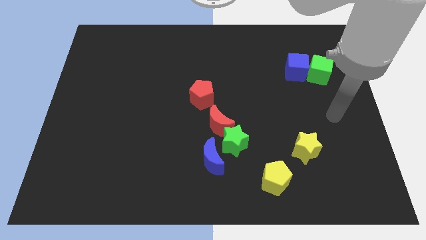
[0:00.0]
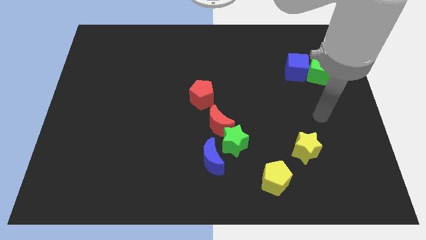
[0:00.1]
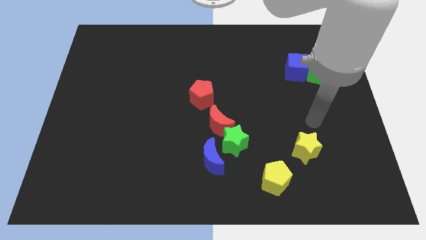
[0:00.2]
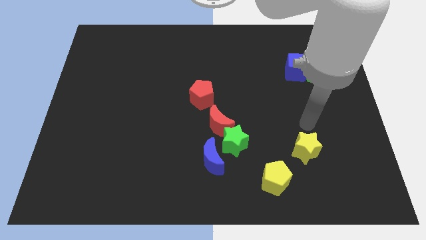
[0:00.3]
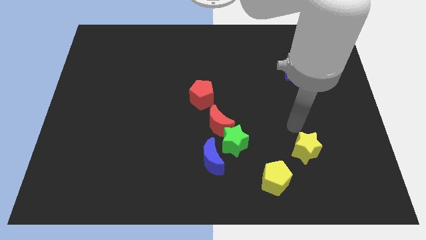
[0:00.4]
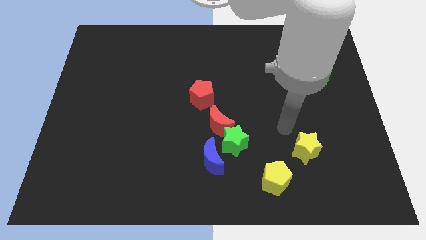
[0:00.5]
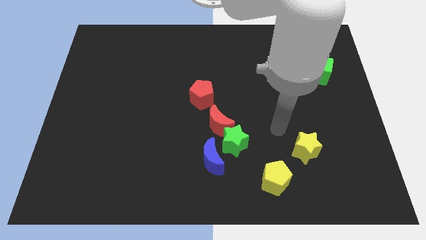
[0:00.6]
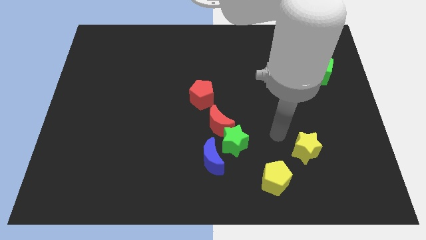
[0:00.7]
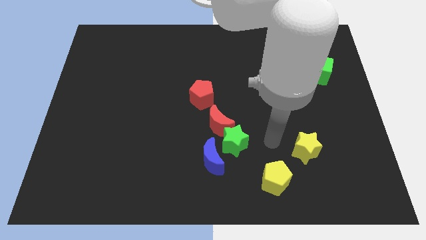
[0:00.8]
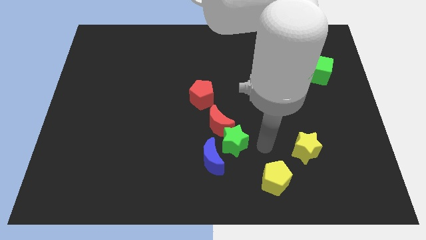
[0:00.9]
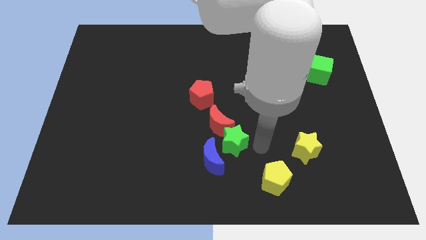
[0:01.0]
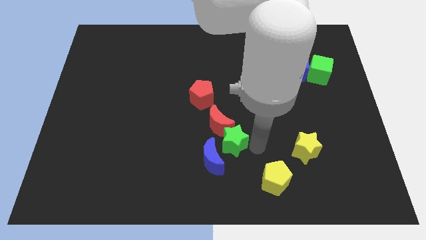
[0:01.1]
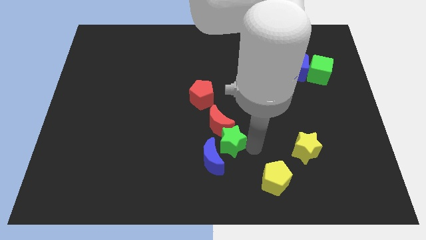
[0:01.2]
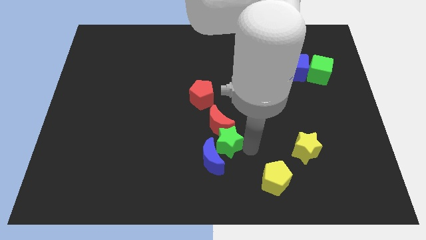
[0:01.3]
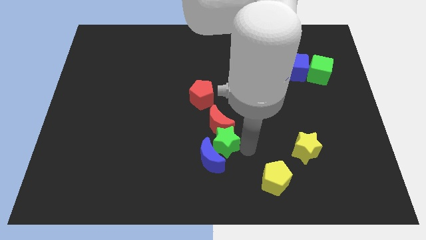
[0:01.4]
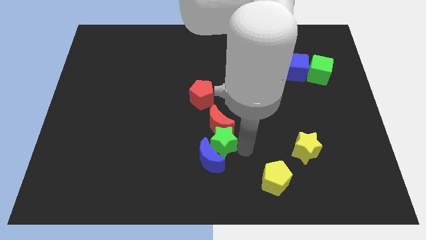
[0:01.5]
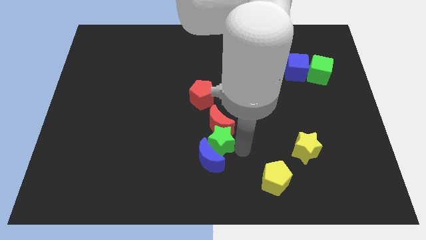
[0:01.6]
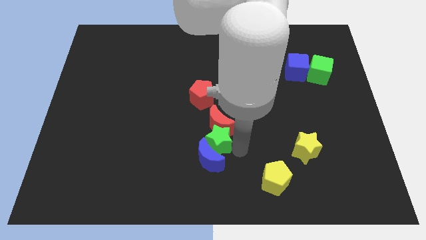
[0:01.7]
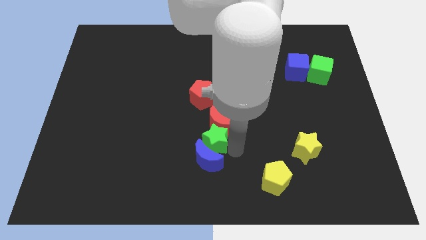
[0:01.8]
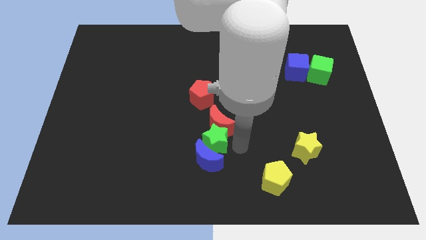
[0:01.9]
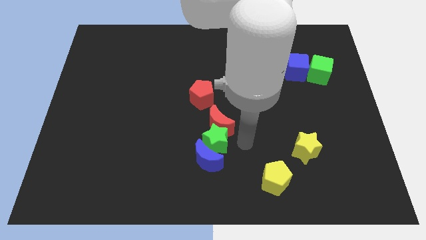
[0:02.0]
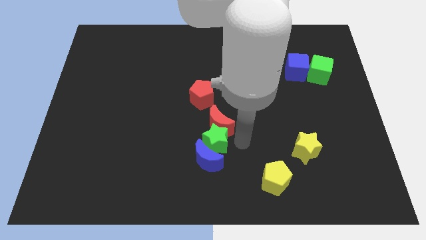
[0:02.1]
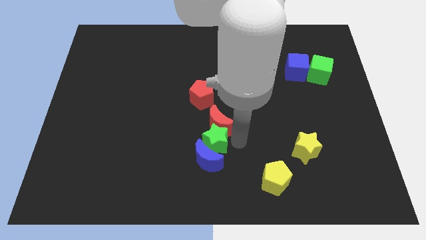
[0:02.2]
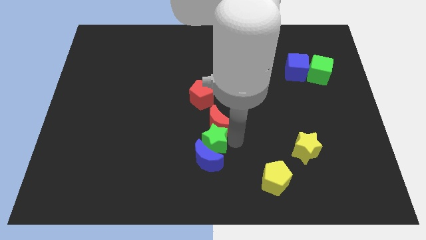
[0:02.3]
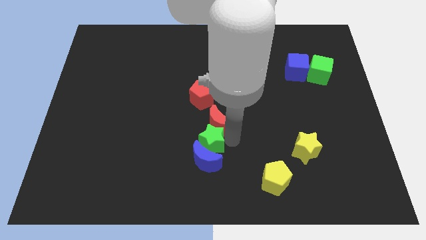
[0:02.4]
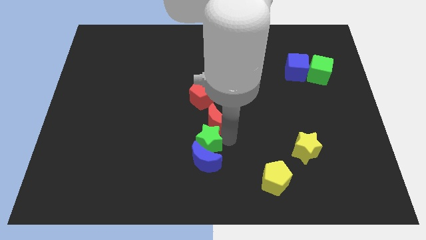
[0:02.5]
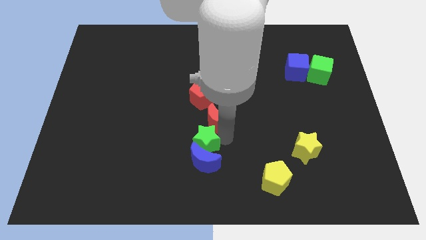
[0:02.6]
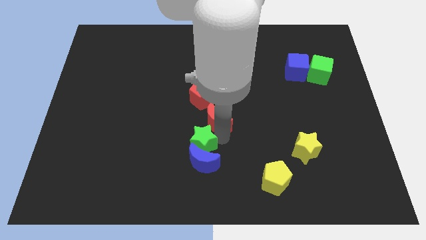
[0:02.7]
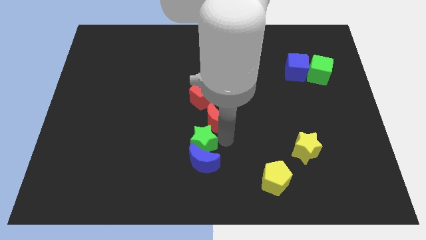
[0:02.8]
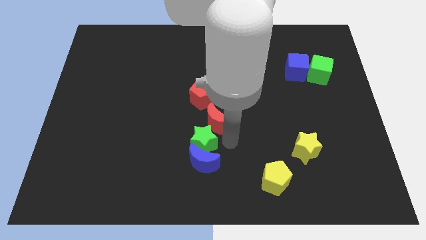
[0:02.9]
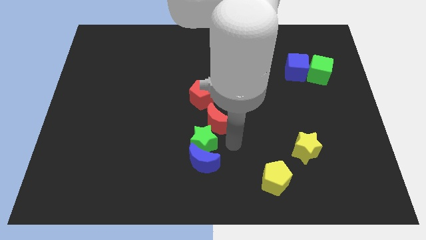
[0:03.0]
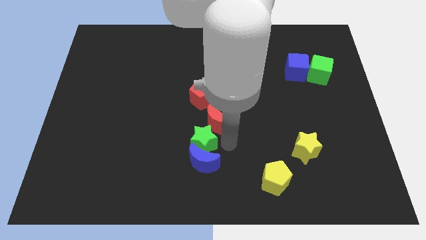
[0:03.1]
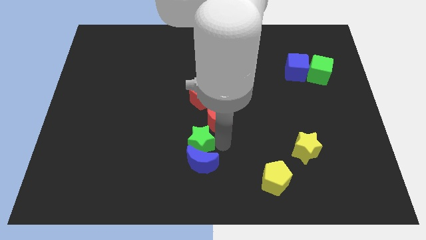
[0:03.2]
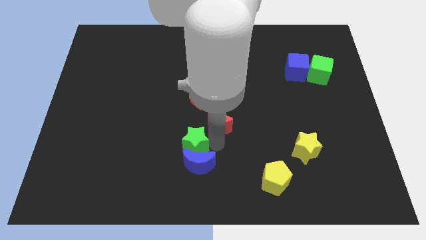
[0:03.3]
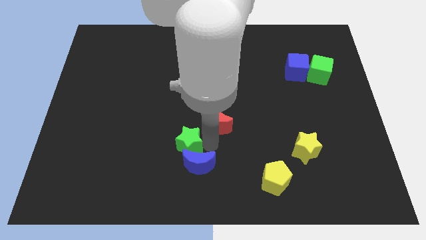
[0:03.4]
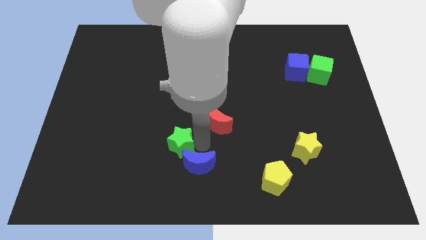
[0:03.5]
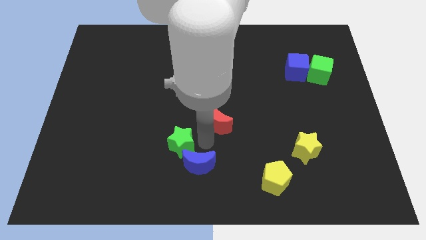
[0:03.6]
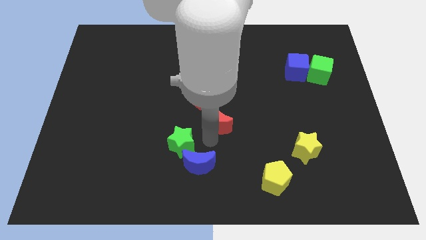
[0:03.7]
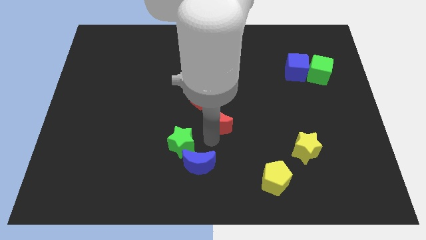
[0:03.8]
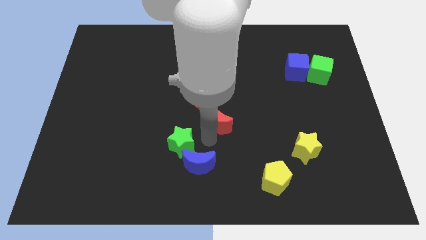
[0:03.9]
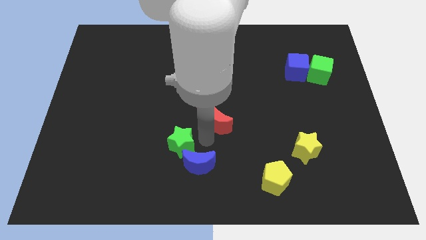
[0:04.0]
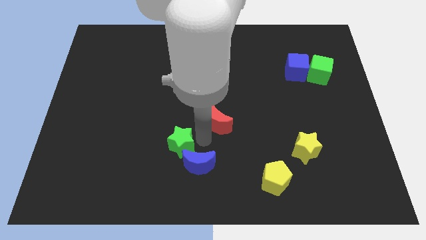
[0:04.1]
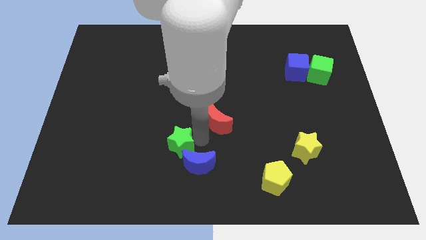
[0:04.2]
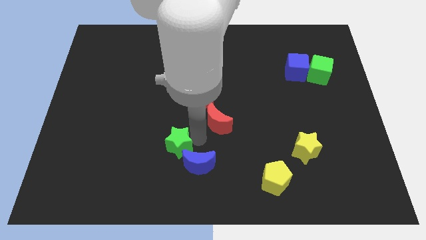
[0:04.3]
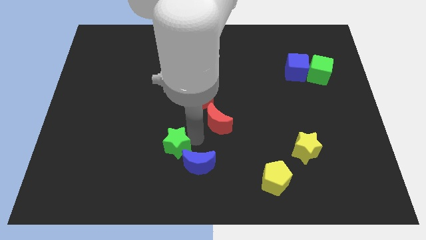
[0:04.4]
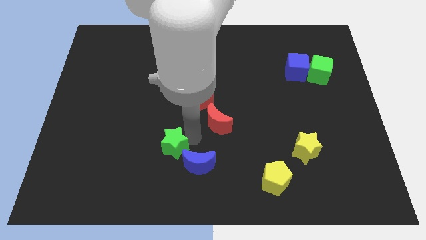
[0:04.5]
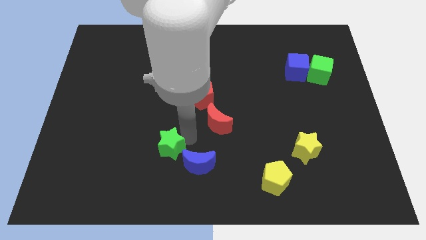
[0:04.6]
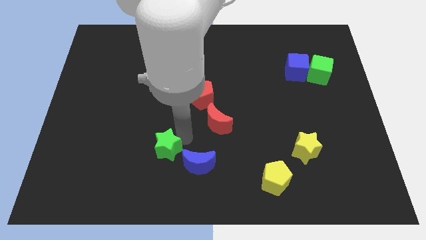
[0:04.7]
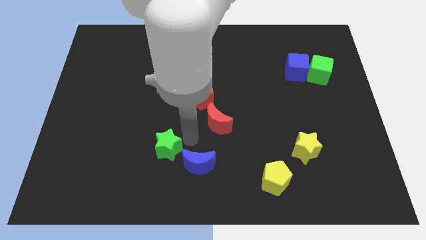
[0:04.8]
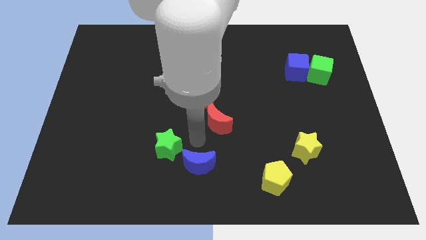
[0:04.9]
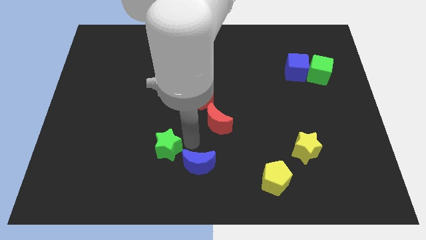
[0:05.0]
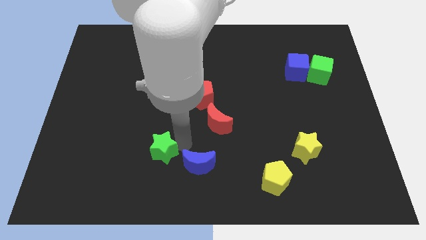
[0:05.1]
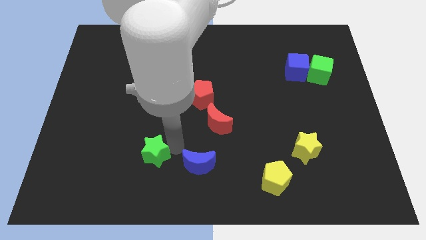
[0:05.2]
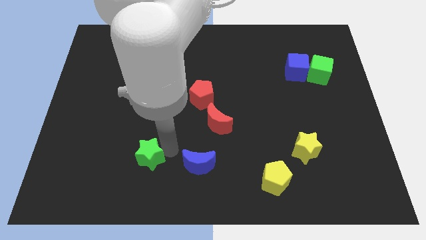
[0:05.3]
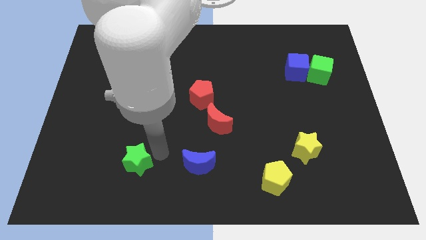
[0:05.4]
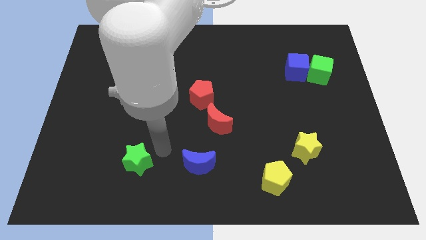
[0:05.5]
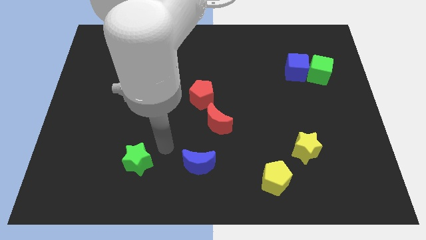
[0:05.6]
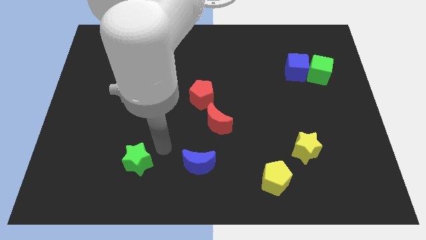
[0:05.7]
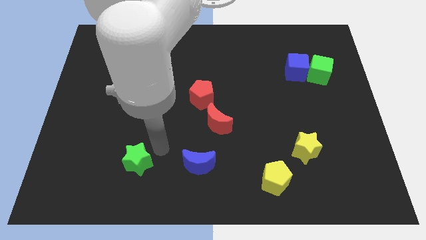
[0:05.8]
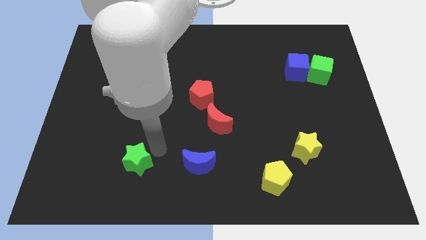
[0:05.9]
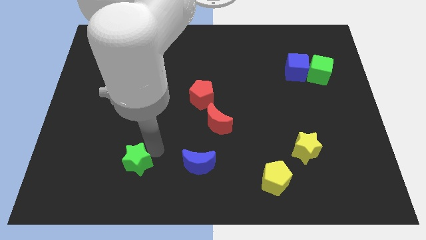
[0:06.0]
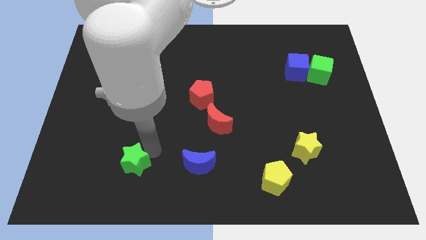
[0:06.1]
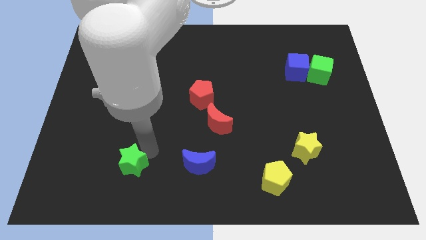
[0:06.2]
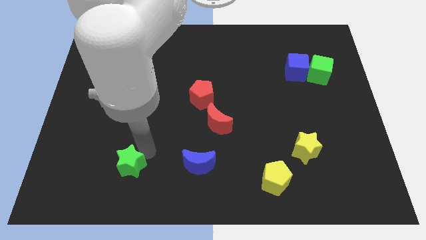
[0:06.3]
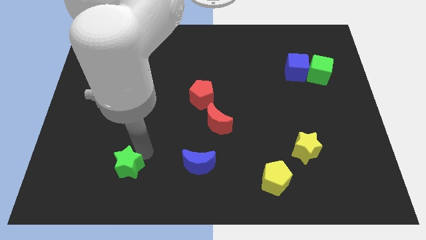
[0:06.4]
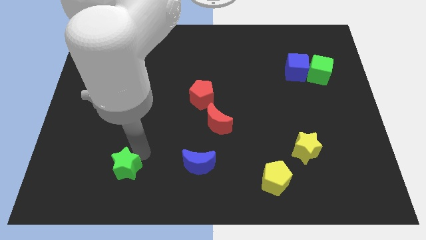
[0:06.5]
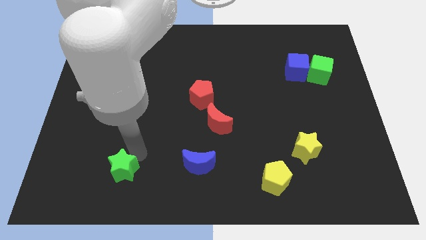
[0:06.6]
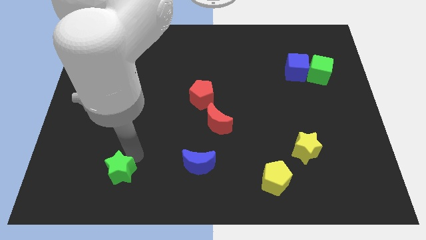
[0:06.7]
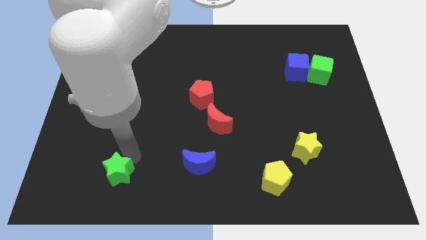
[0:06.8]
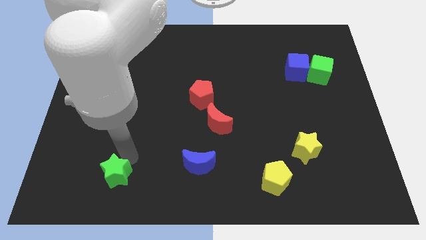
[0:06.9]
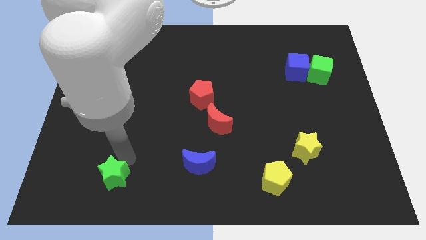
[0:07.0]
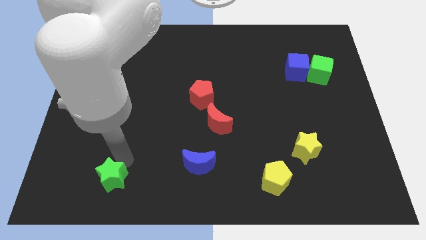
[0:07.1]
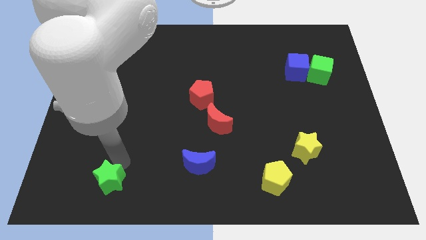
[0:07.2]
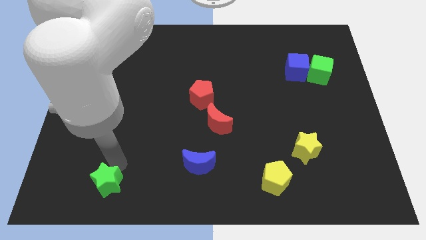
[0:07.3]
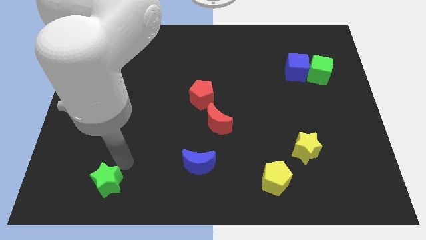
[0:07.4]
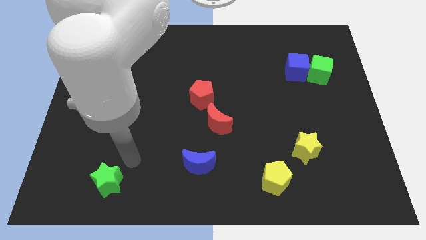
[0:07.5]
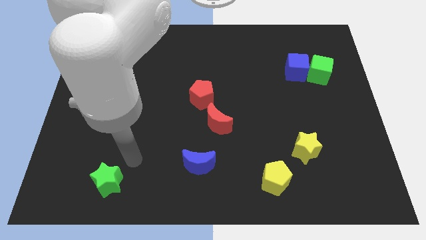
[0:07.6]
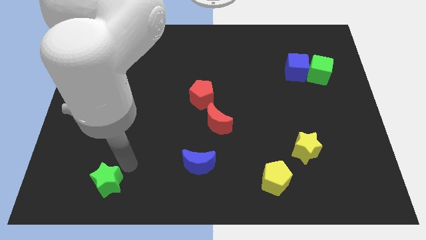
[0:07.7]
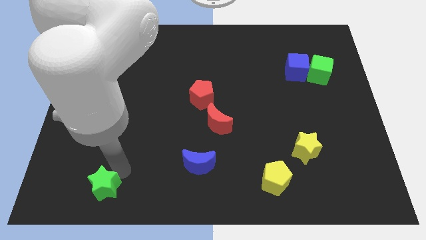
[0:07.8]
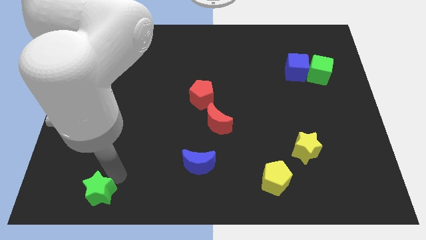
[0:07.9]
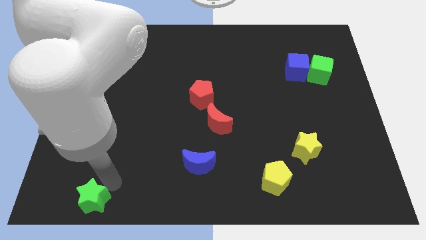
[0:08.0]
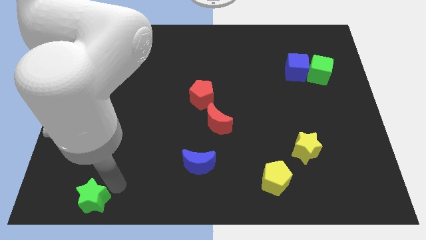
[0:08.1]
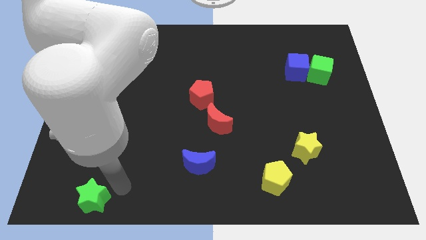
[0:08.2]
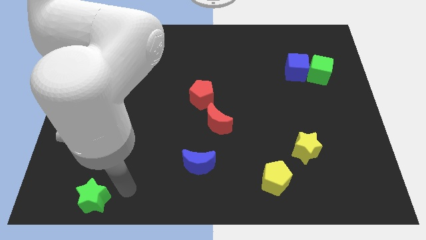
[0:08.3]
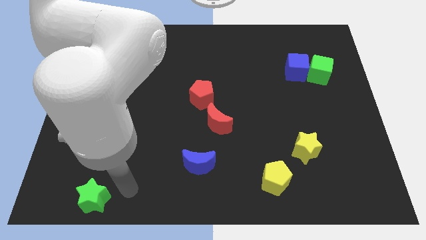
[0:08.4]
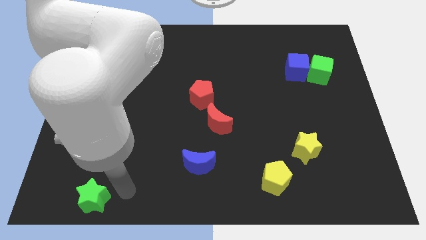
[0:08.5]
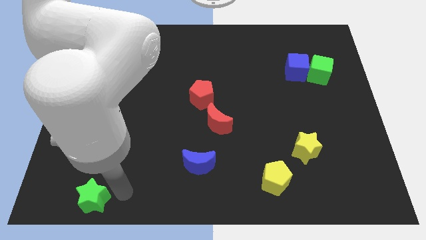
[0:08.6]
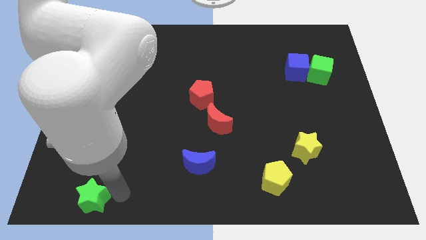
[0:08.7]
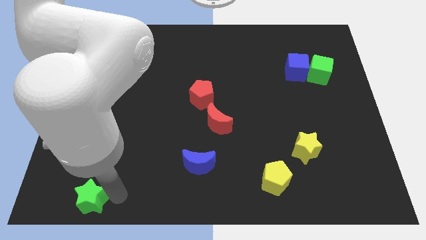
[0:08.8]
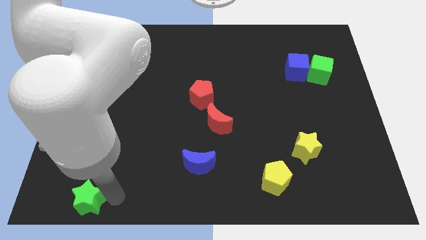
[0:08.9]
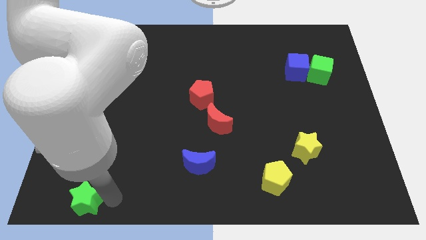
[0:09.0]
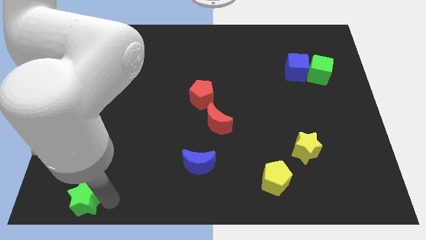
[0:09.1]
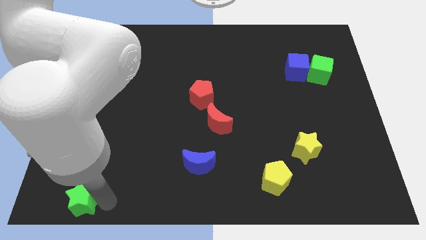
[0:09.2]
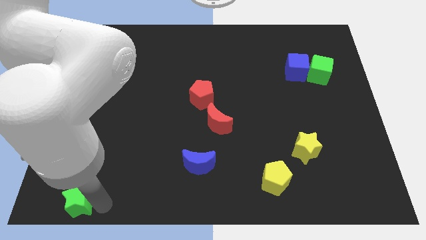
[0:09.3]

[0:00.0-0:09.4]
push the green star to the bottom left
